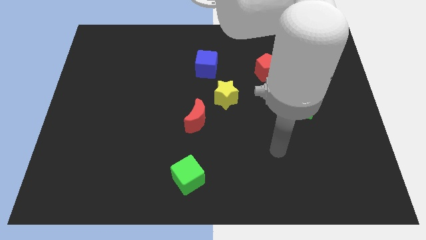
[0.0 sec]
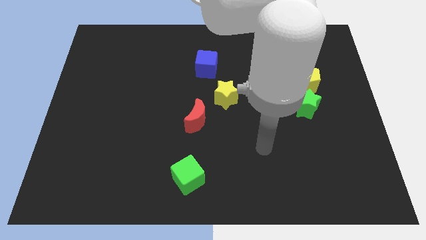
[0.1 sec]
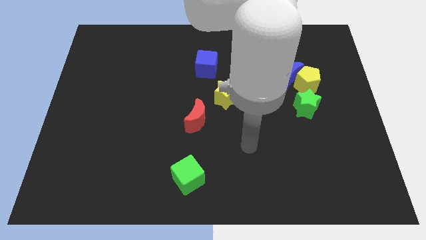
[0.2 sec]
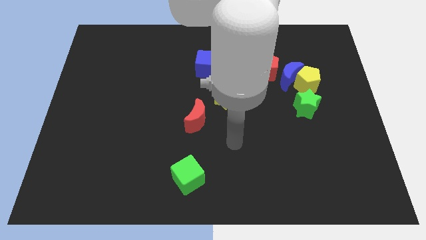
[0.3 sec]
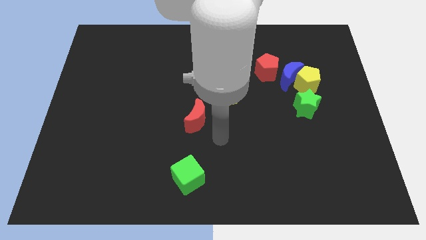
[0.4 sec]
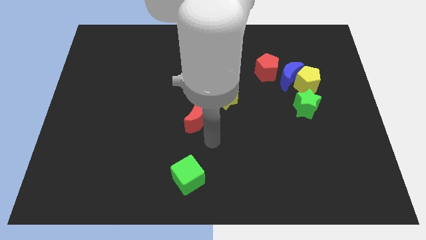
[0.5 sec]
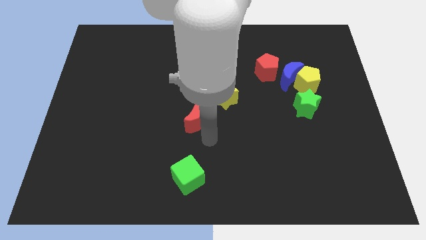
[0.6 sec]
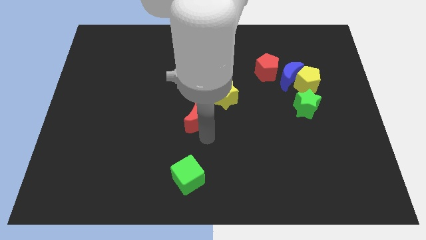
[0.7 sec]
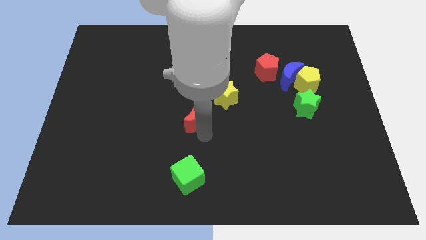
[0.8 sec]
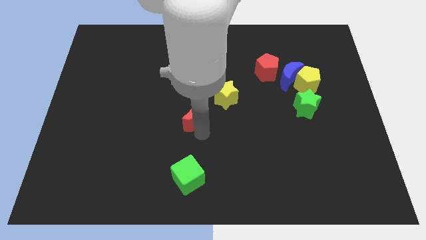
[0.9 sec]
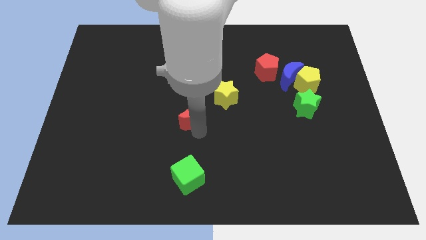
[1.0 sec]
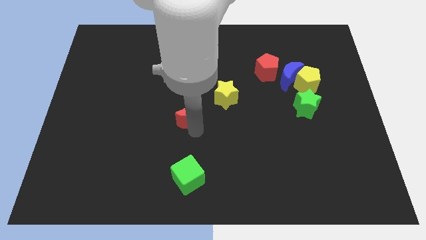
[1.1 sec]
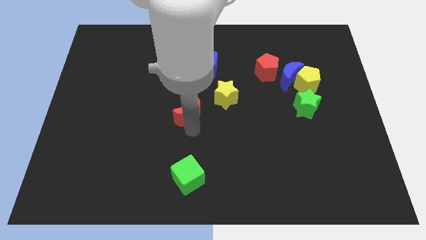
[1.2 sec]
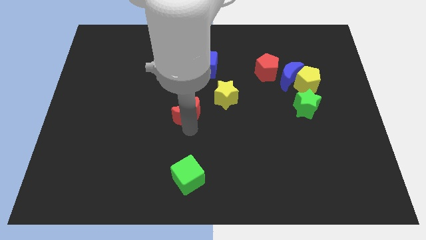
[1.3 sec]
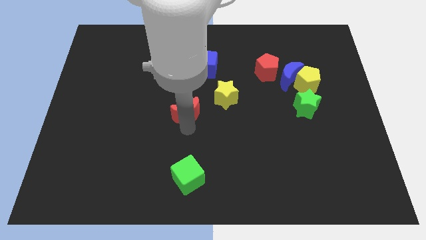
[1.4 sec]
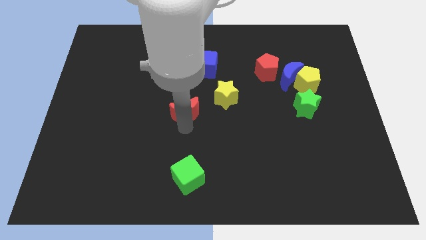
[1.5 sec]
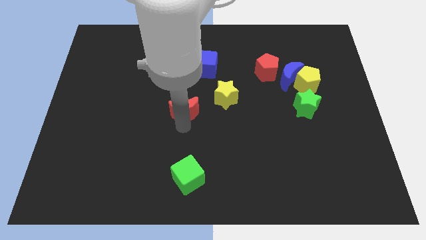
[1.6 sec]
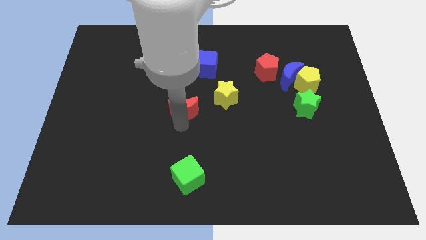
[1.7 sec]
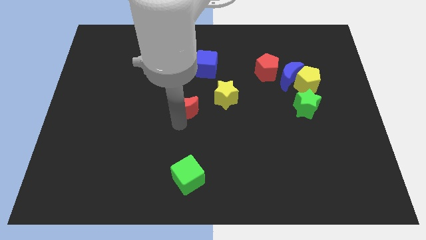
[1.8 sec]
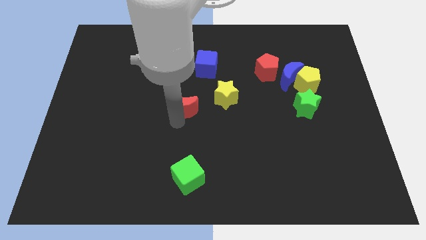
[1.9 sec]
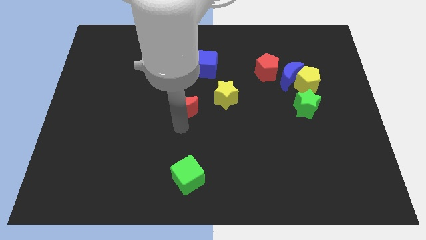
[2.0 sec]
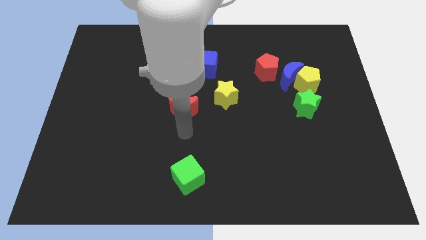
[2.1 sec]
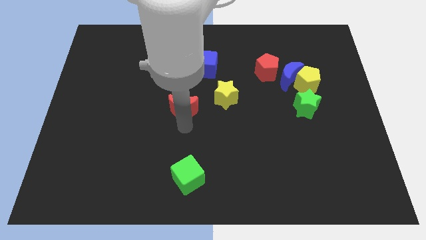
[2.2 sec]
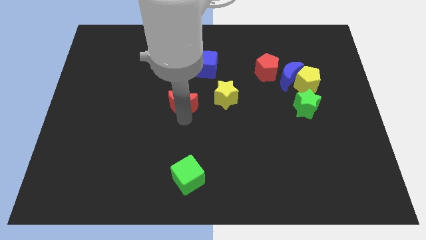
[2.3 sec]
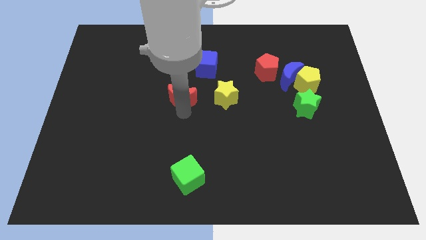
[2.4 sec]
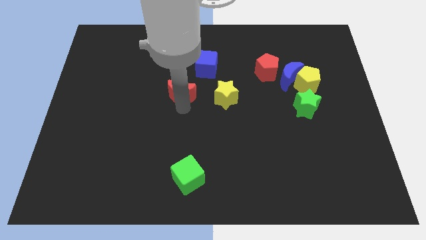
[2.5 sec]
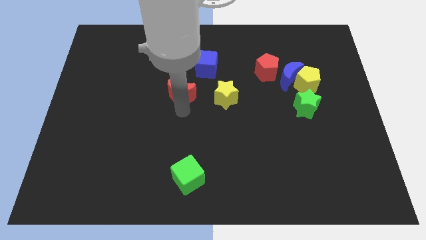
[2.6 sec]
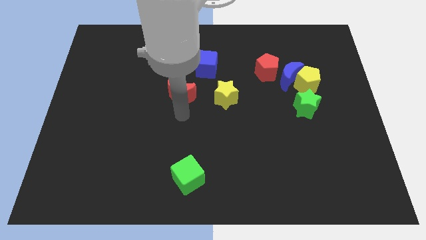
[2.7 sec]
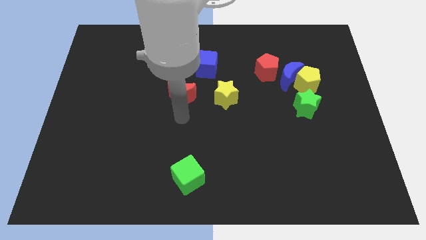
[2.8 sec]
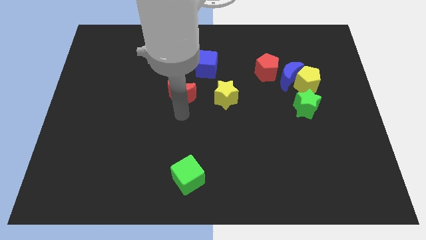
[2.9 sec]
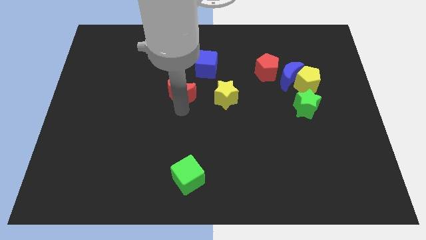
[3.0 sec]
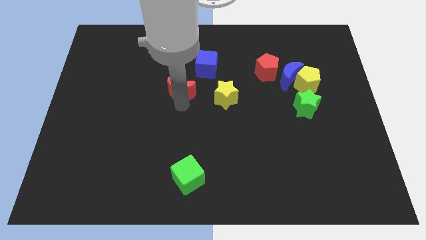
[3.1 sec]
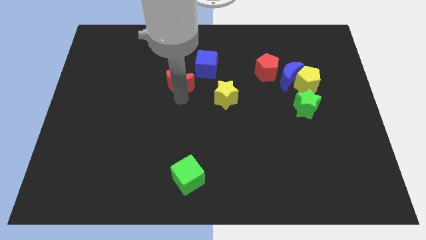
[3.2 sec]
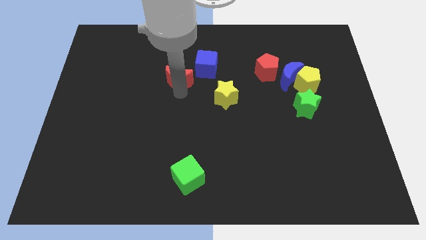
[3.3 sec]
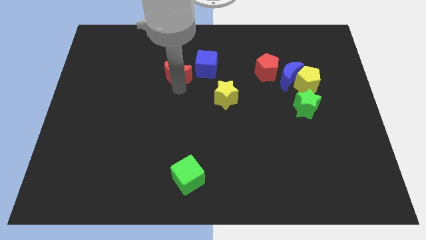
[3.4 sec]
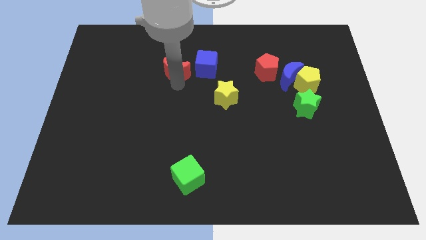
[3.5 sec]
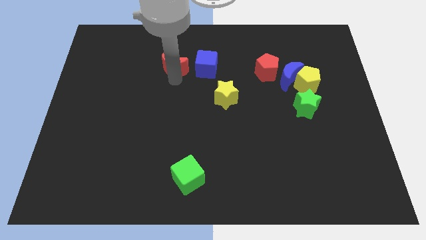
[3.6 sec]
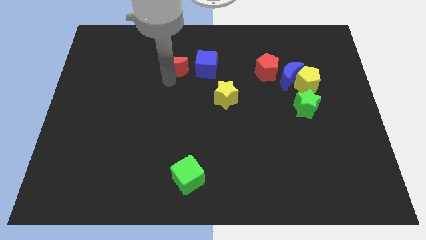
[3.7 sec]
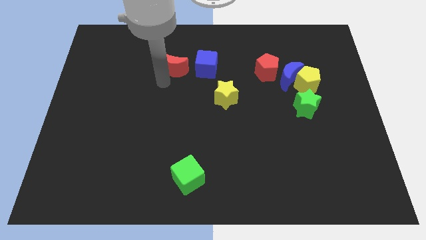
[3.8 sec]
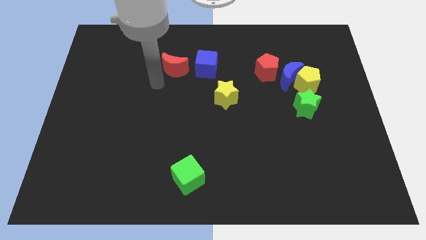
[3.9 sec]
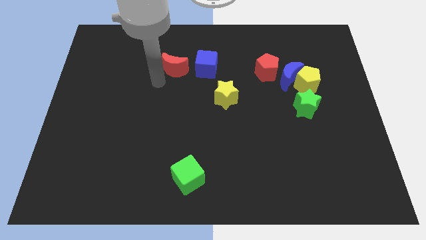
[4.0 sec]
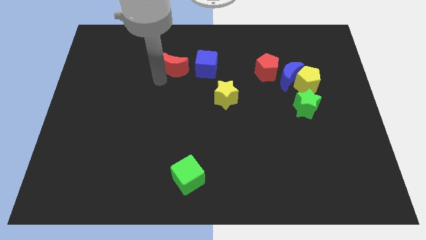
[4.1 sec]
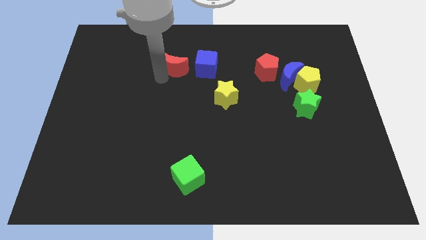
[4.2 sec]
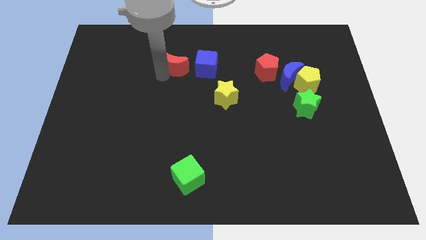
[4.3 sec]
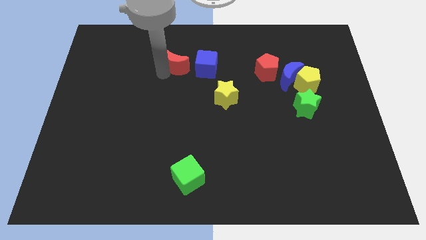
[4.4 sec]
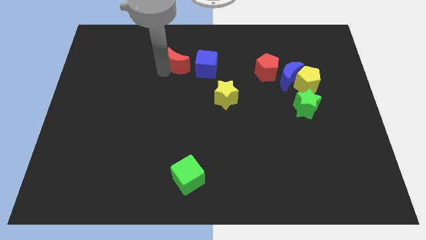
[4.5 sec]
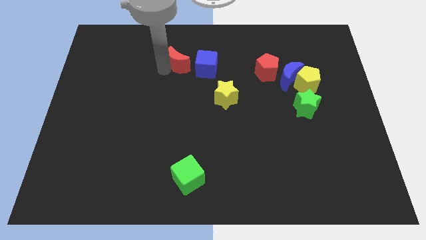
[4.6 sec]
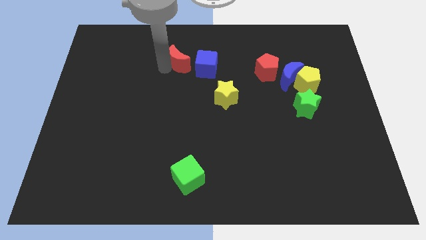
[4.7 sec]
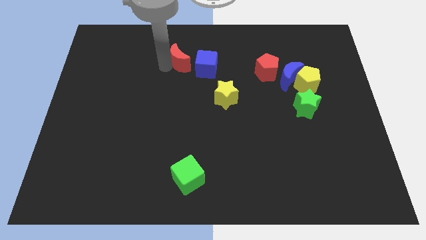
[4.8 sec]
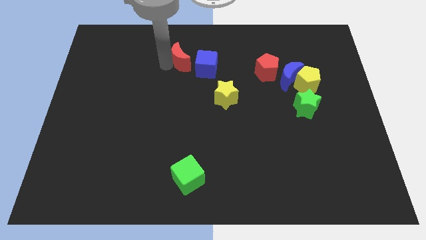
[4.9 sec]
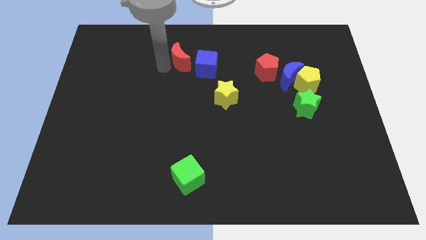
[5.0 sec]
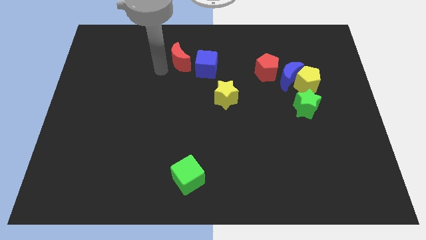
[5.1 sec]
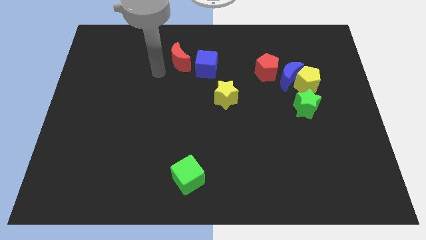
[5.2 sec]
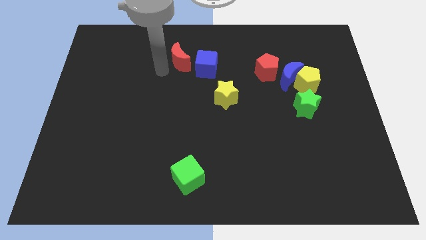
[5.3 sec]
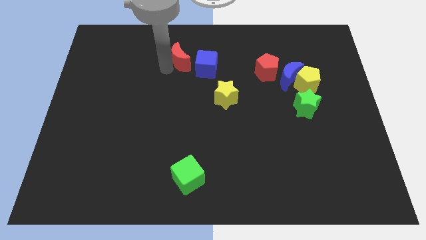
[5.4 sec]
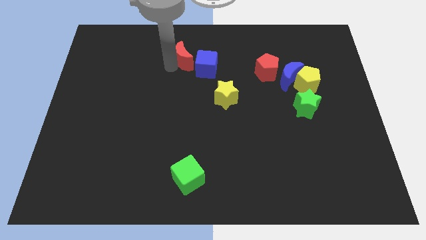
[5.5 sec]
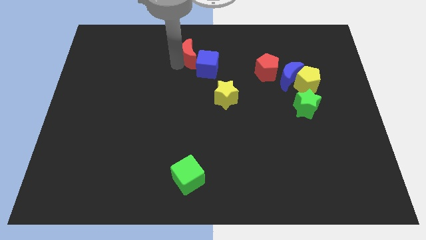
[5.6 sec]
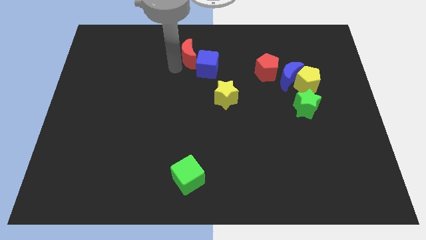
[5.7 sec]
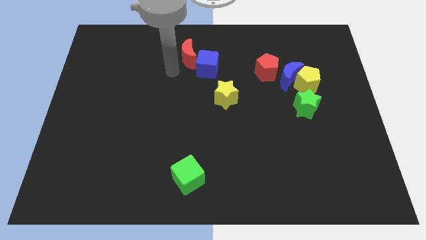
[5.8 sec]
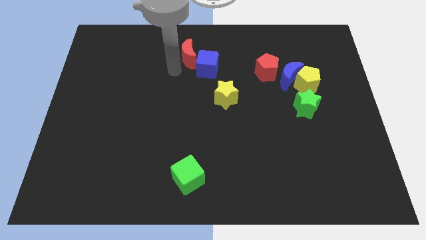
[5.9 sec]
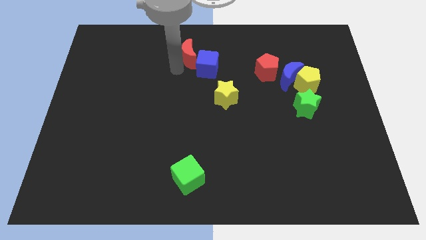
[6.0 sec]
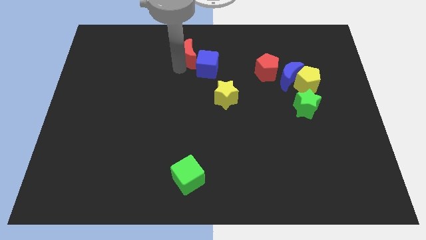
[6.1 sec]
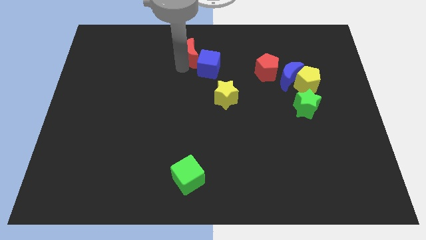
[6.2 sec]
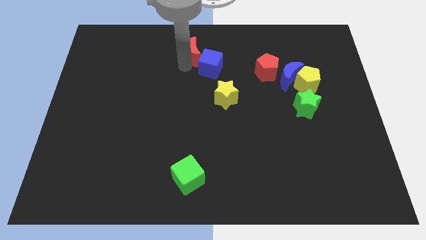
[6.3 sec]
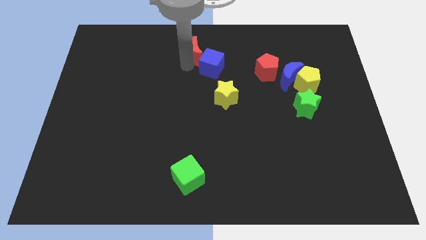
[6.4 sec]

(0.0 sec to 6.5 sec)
push the red moon to the top side
